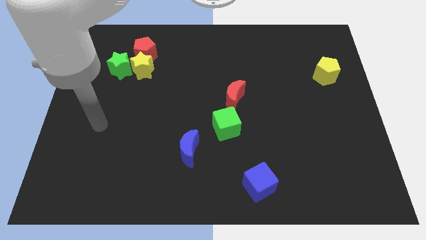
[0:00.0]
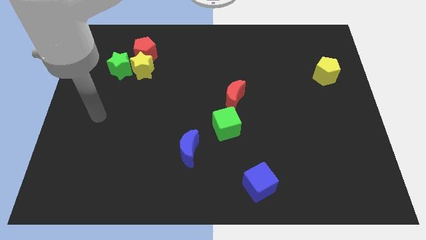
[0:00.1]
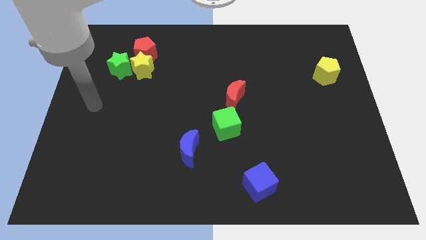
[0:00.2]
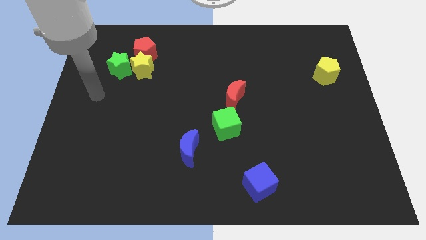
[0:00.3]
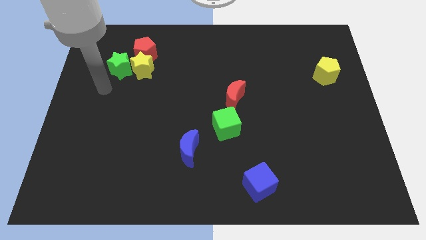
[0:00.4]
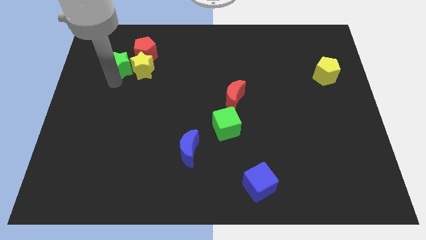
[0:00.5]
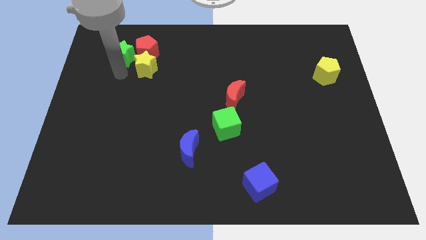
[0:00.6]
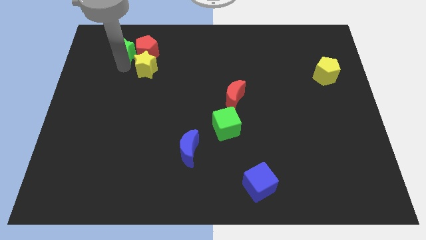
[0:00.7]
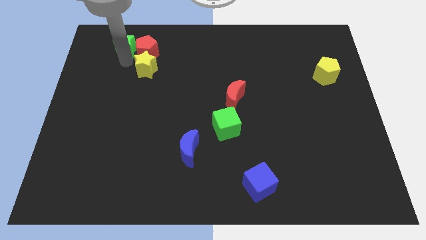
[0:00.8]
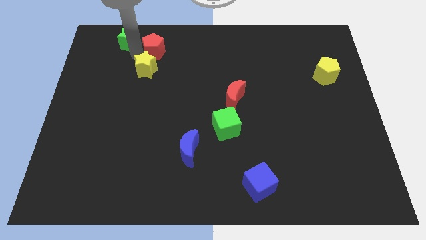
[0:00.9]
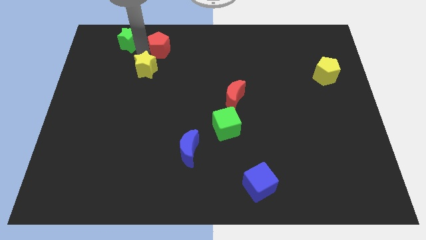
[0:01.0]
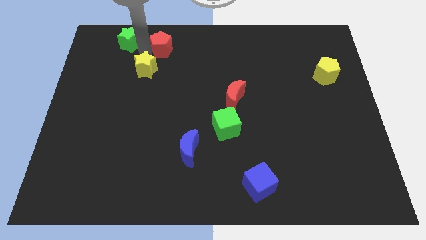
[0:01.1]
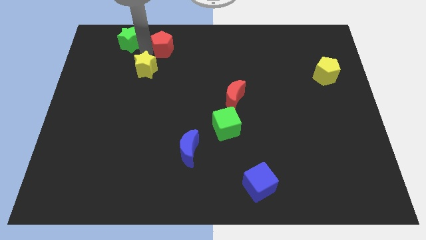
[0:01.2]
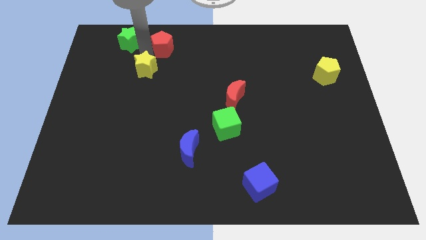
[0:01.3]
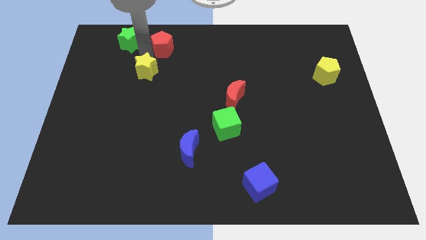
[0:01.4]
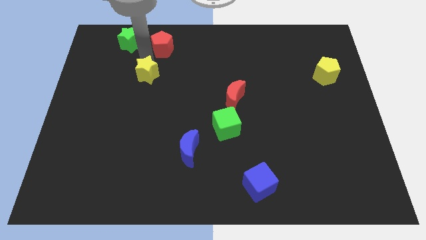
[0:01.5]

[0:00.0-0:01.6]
pull the yellow star apart from the red pentagon and green star

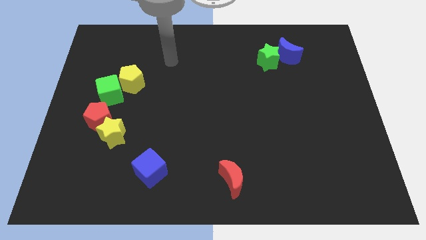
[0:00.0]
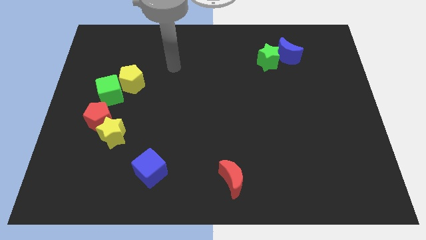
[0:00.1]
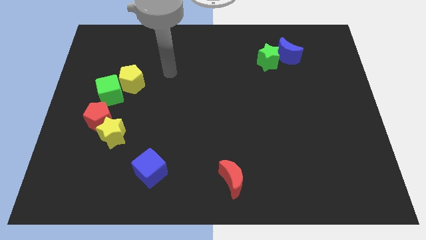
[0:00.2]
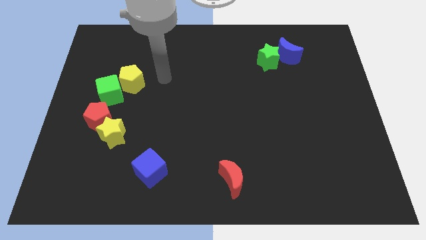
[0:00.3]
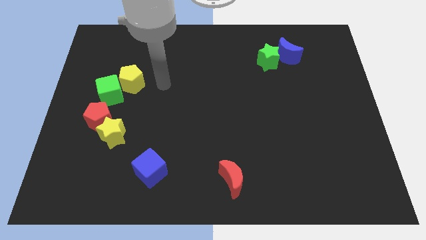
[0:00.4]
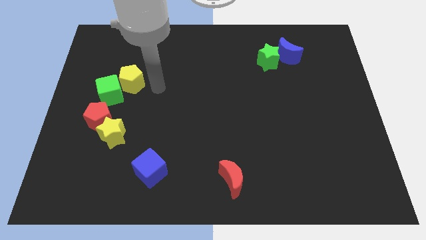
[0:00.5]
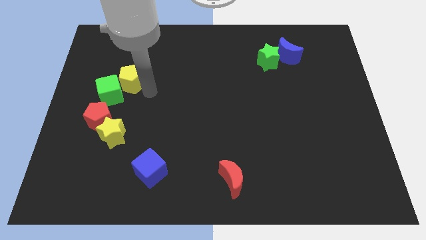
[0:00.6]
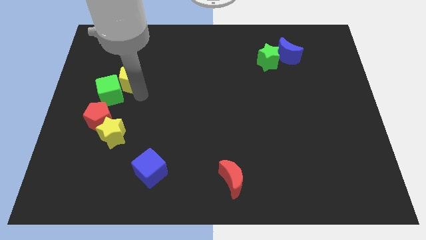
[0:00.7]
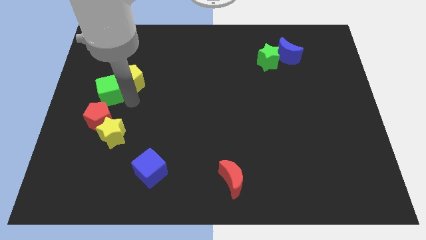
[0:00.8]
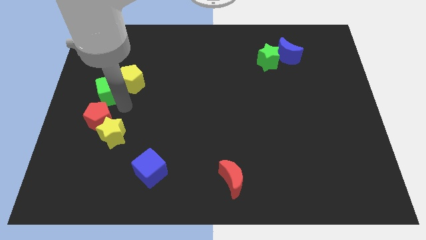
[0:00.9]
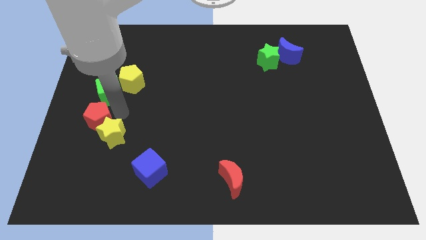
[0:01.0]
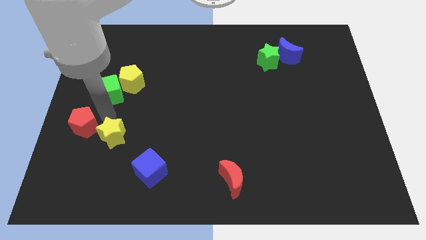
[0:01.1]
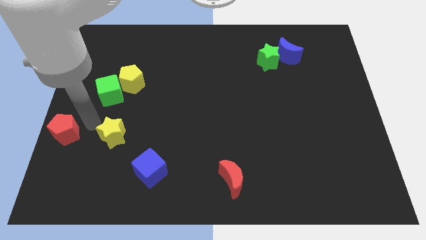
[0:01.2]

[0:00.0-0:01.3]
separate the yellow star from the red pentagon

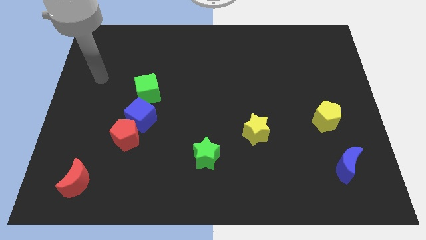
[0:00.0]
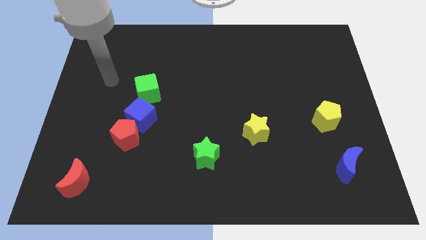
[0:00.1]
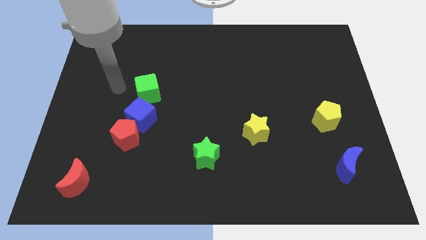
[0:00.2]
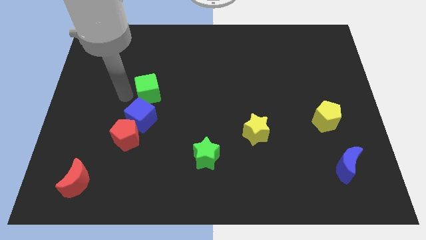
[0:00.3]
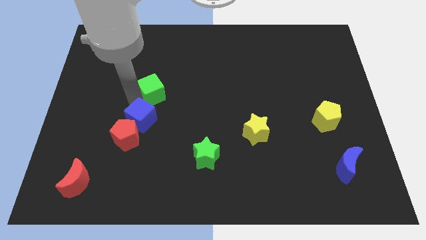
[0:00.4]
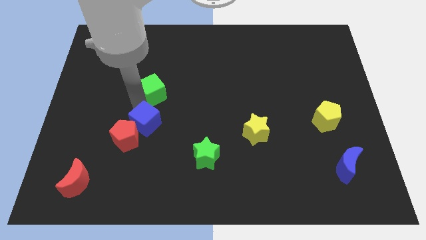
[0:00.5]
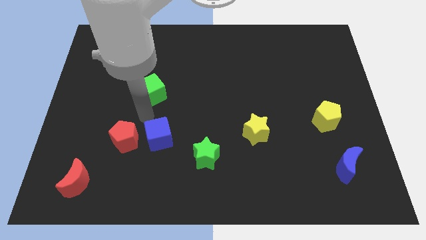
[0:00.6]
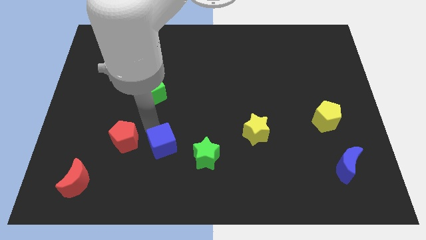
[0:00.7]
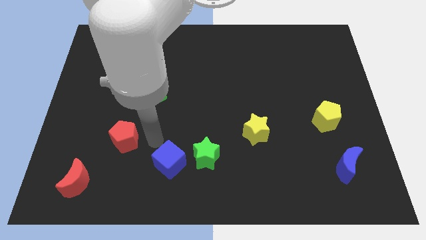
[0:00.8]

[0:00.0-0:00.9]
pull the red pentagon apart from the blue cube

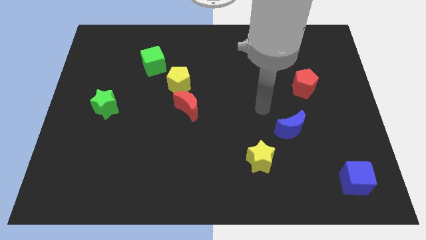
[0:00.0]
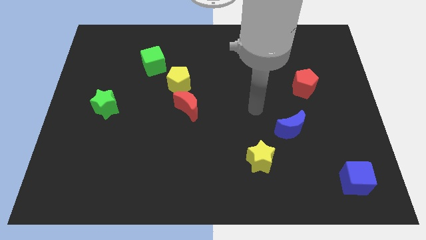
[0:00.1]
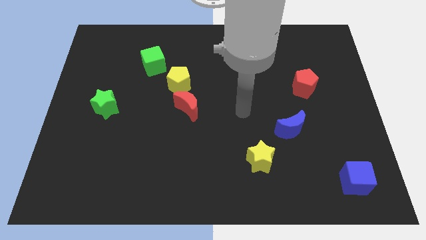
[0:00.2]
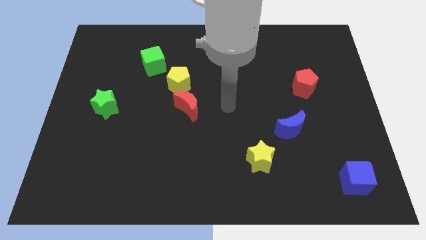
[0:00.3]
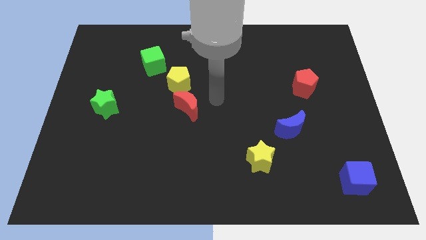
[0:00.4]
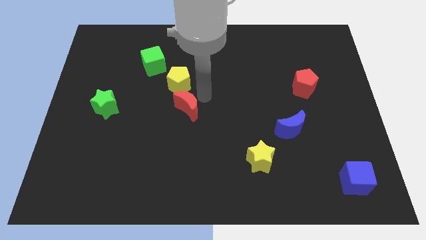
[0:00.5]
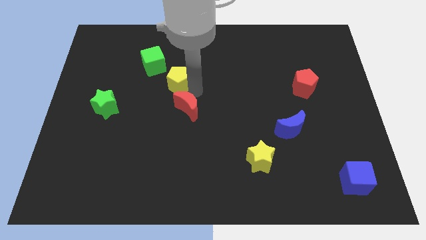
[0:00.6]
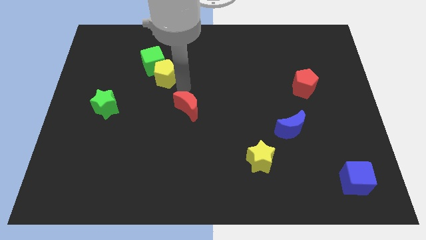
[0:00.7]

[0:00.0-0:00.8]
pull the red moon apart from the yellow pentagon

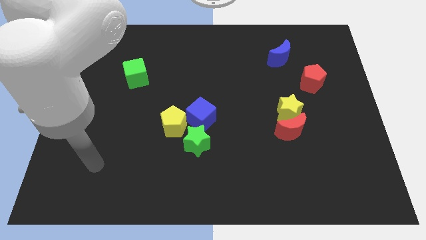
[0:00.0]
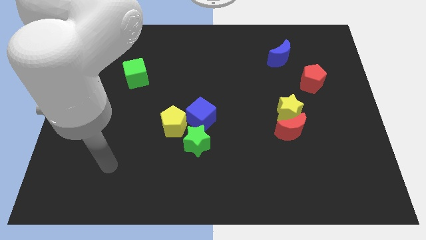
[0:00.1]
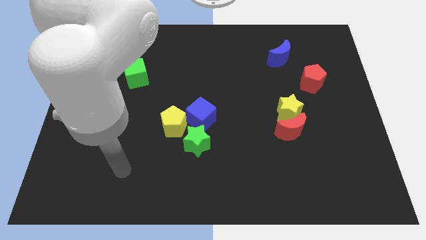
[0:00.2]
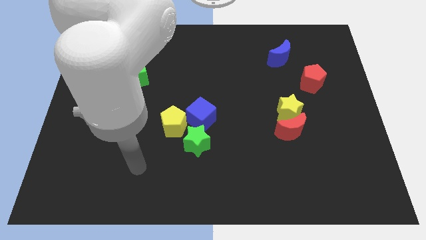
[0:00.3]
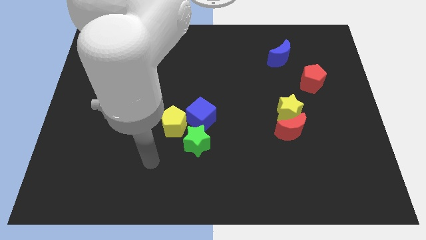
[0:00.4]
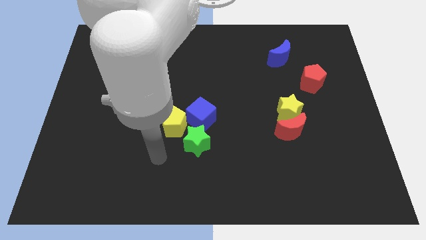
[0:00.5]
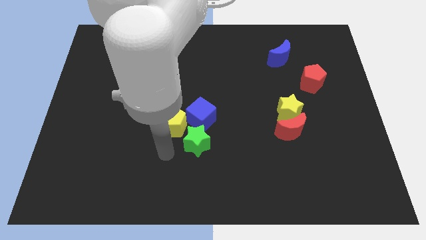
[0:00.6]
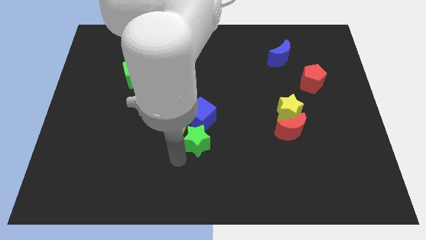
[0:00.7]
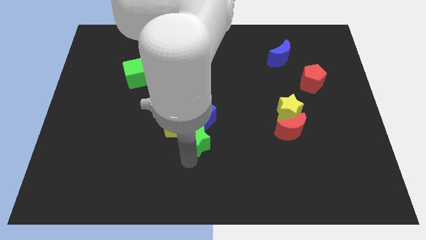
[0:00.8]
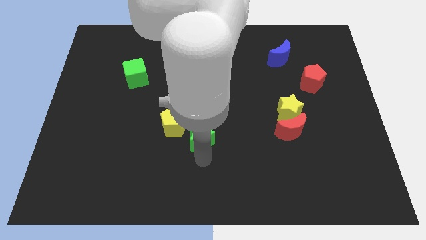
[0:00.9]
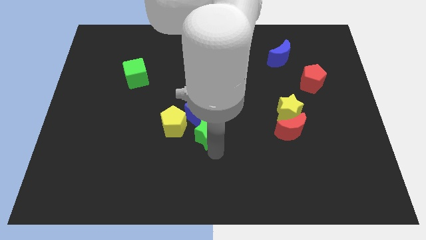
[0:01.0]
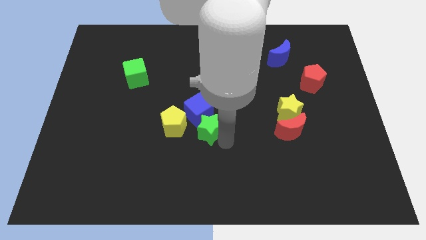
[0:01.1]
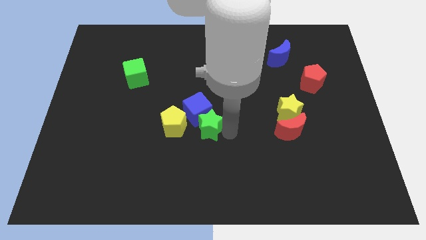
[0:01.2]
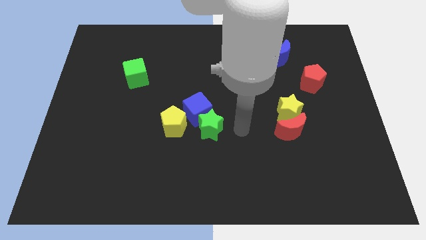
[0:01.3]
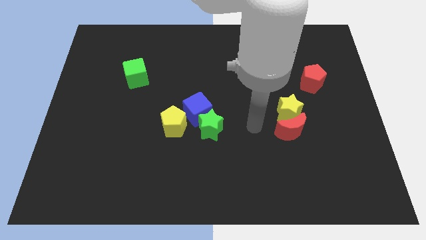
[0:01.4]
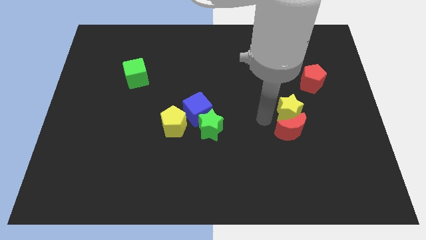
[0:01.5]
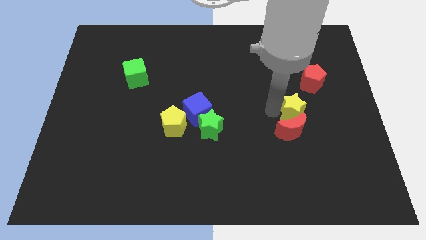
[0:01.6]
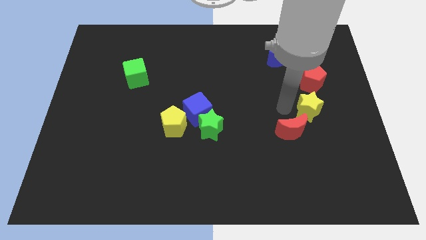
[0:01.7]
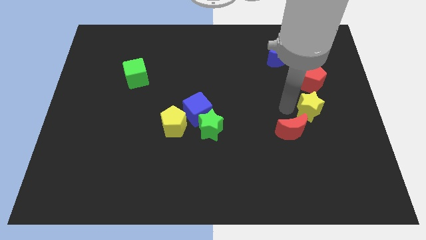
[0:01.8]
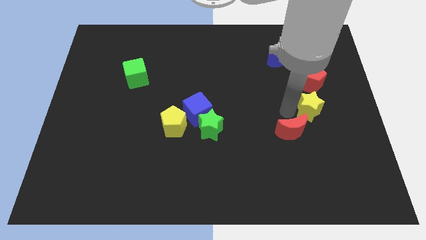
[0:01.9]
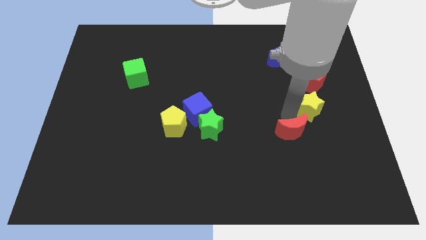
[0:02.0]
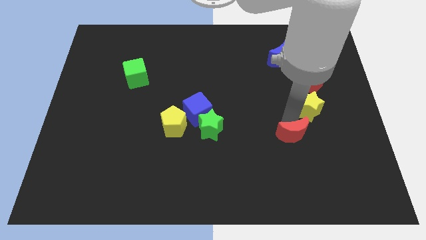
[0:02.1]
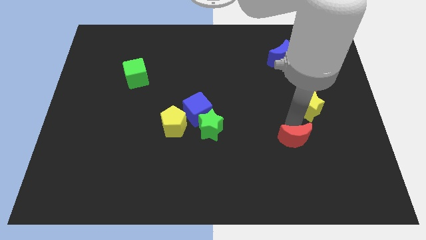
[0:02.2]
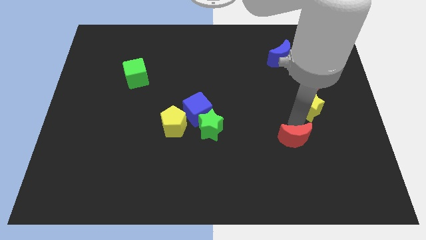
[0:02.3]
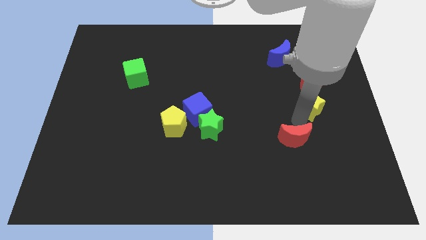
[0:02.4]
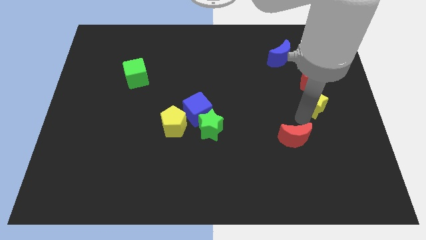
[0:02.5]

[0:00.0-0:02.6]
separate the red moon from the yellow star

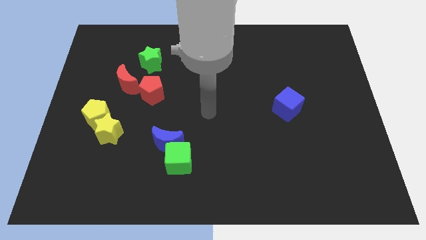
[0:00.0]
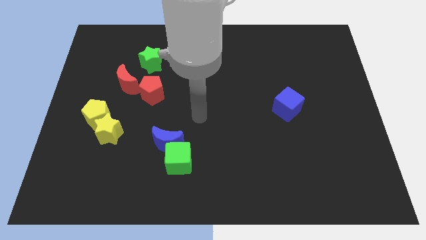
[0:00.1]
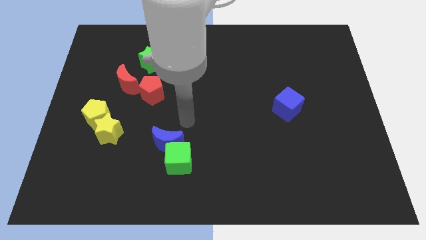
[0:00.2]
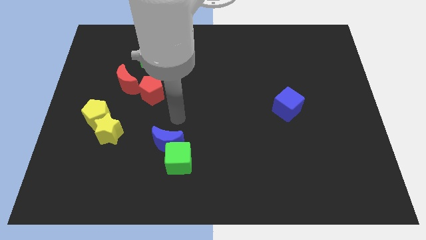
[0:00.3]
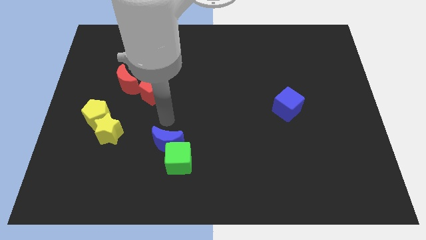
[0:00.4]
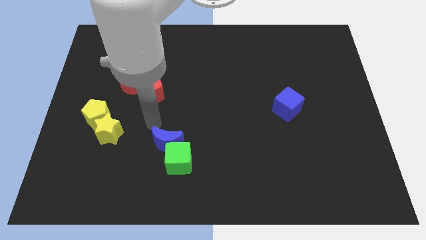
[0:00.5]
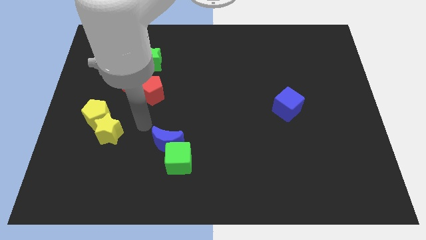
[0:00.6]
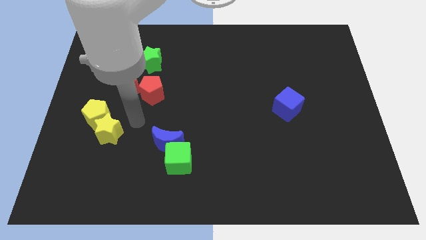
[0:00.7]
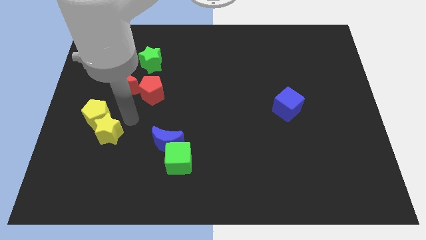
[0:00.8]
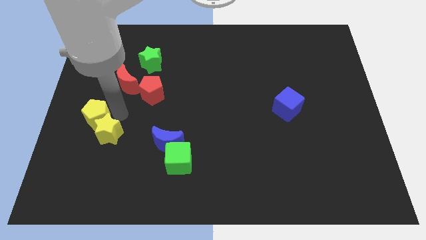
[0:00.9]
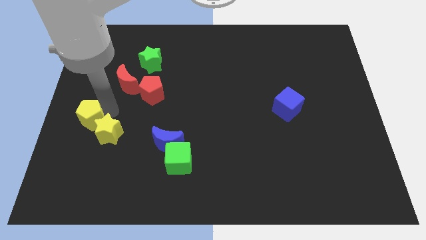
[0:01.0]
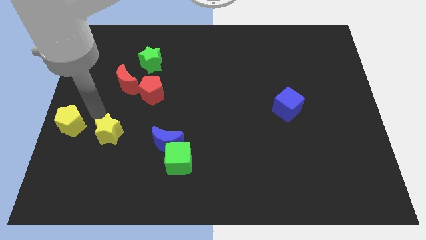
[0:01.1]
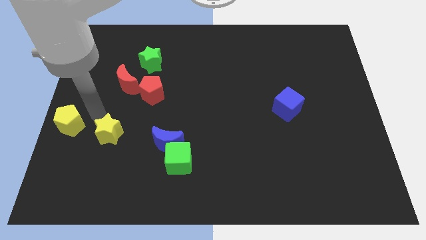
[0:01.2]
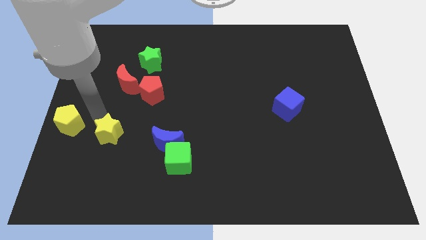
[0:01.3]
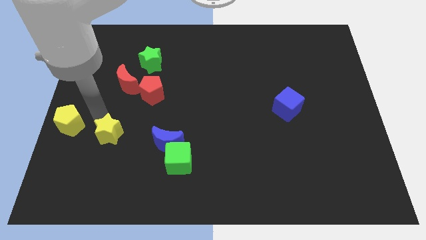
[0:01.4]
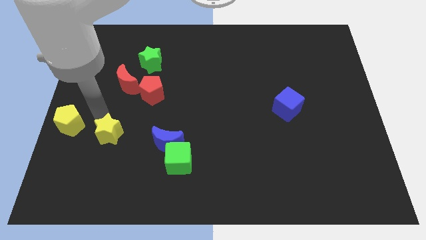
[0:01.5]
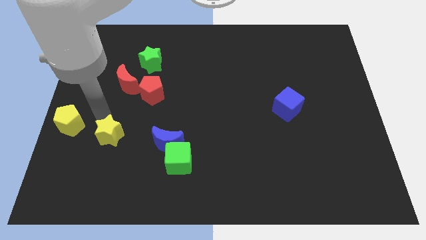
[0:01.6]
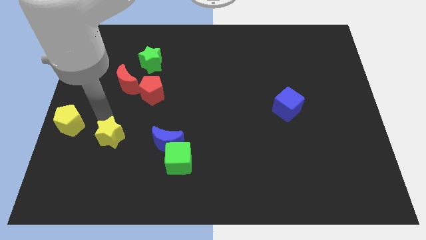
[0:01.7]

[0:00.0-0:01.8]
move the yellow star away from the yellow pentagon

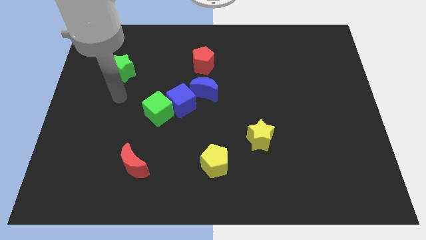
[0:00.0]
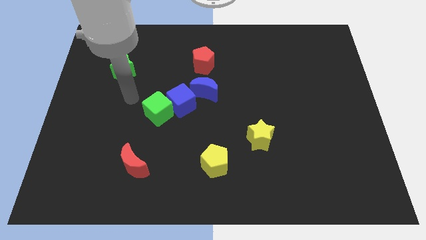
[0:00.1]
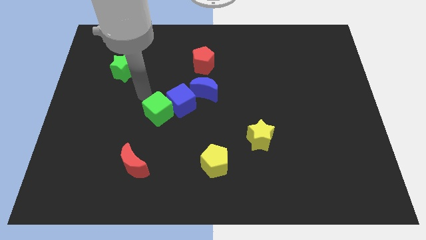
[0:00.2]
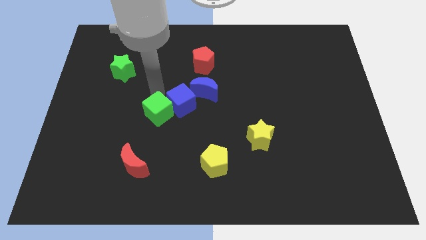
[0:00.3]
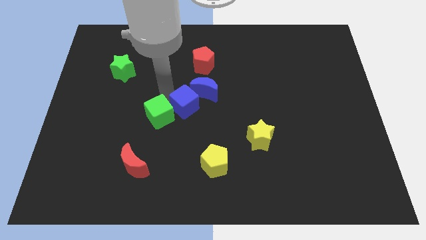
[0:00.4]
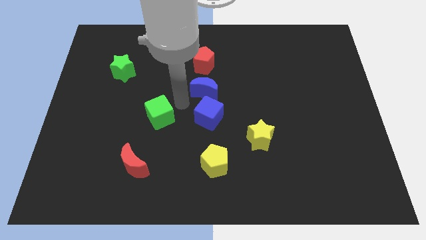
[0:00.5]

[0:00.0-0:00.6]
move the green cube away from the blue cube
